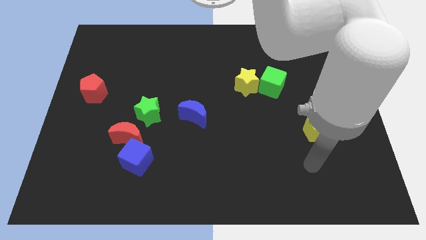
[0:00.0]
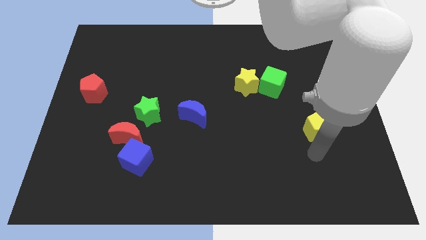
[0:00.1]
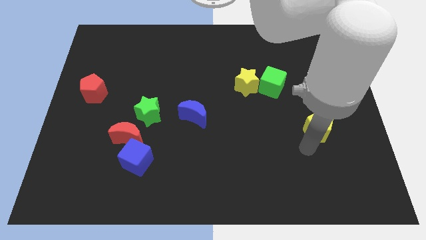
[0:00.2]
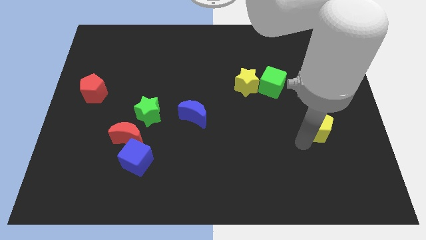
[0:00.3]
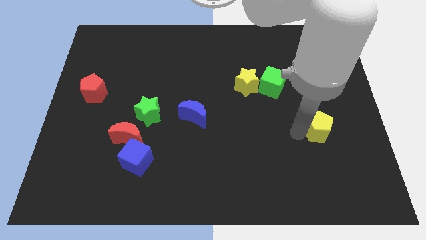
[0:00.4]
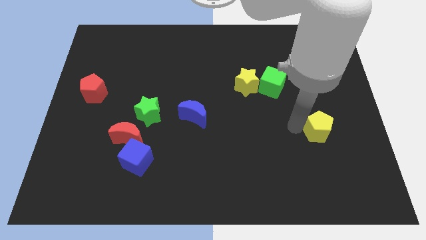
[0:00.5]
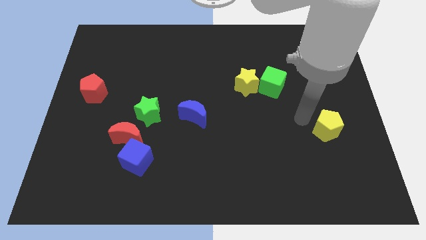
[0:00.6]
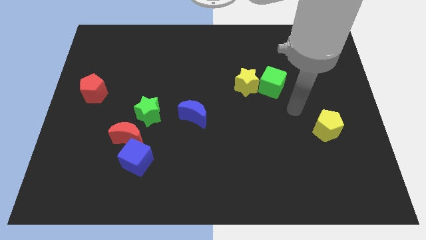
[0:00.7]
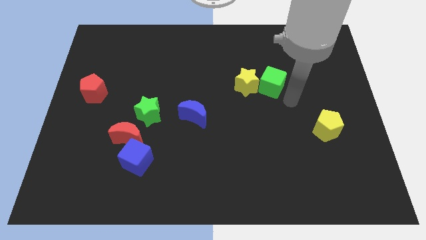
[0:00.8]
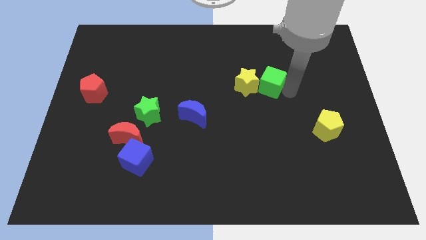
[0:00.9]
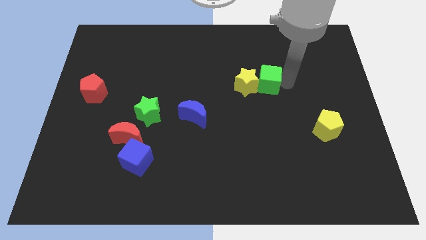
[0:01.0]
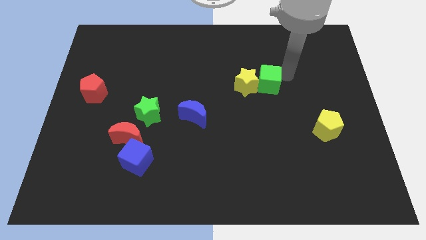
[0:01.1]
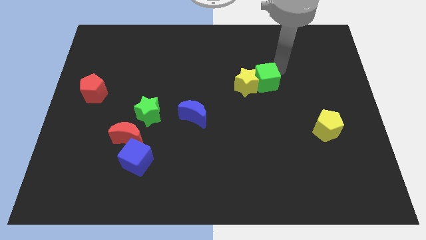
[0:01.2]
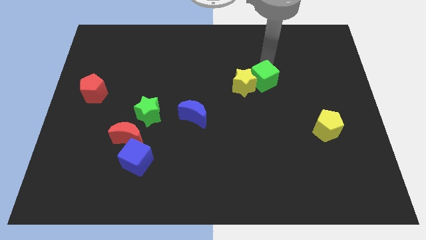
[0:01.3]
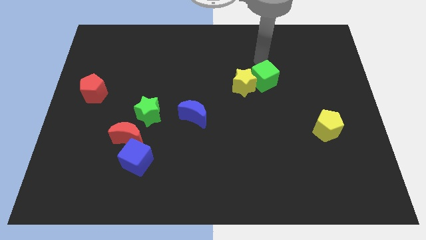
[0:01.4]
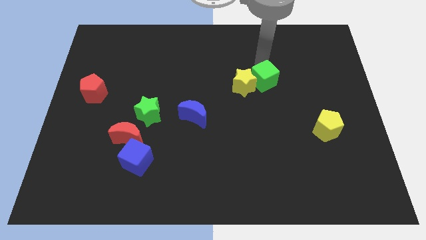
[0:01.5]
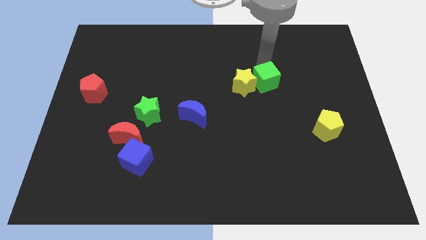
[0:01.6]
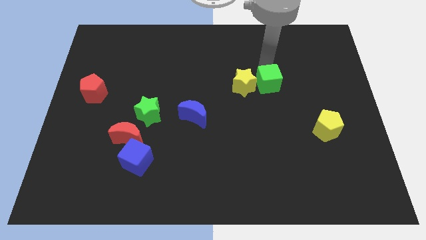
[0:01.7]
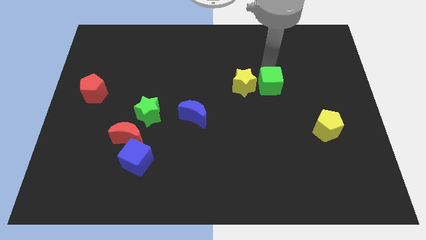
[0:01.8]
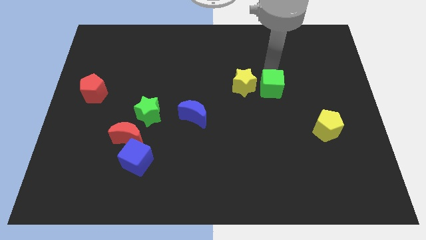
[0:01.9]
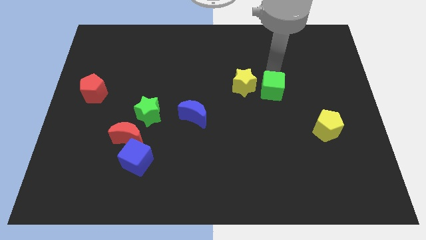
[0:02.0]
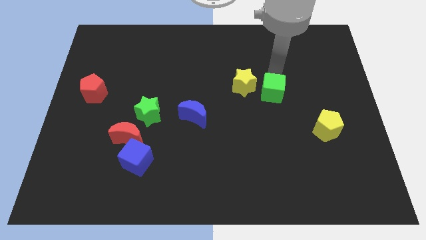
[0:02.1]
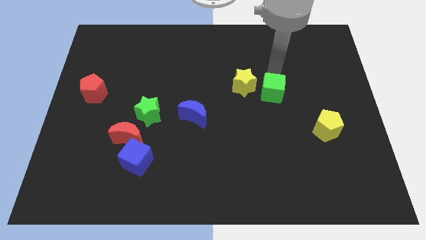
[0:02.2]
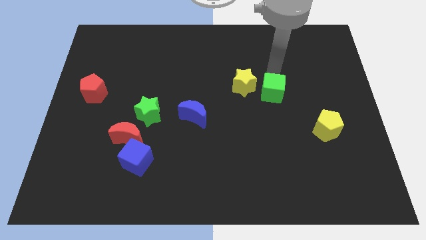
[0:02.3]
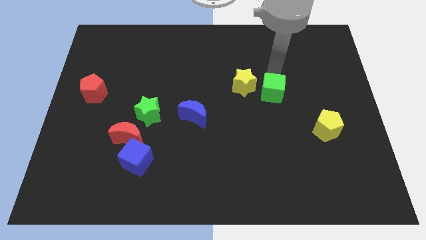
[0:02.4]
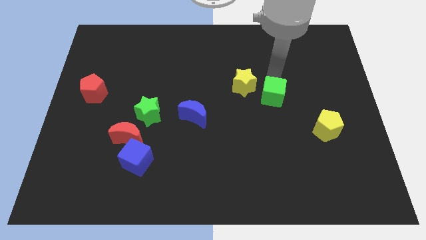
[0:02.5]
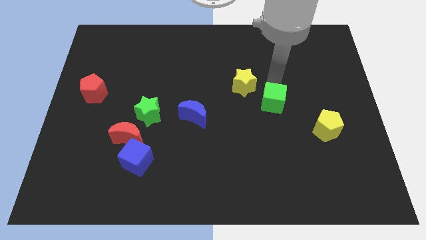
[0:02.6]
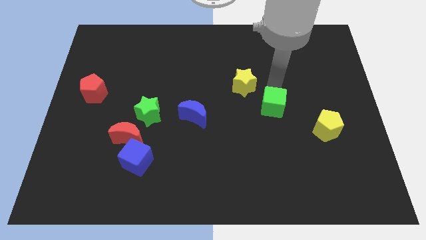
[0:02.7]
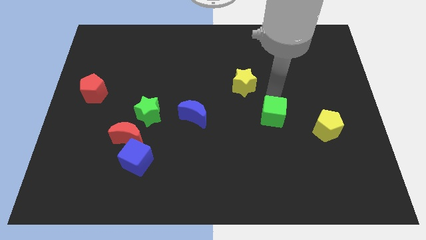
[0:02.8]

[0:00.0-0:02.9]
slide the green cube slightly downwards

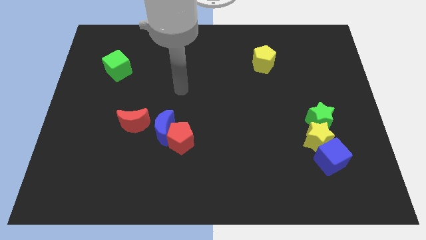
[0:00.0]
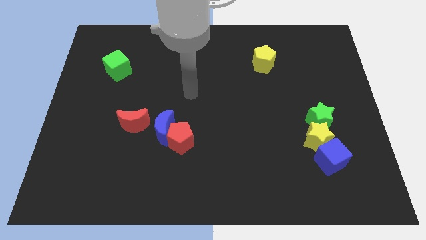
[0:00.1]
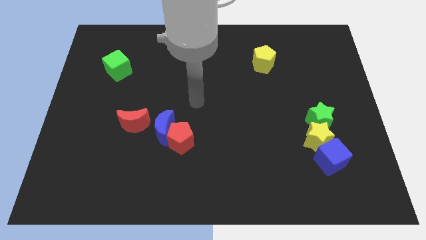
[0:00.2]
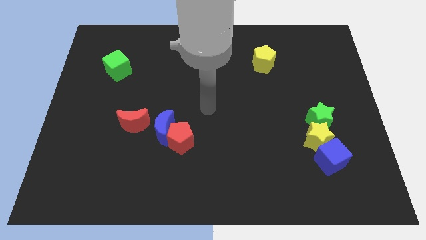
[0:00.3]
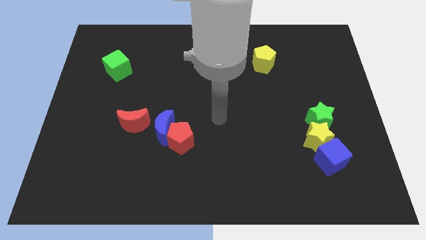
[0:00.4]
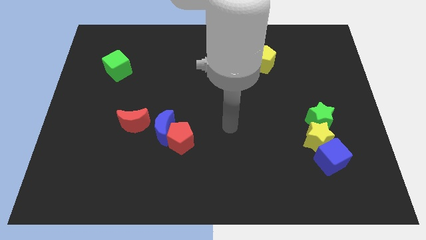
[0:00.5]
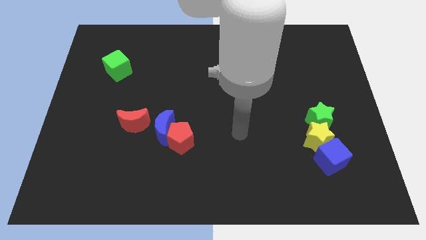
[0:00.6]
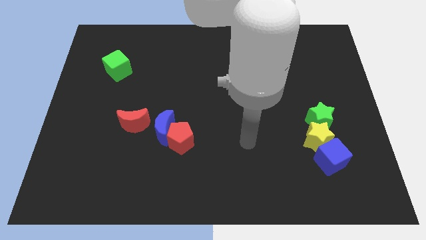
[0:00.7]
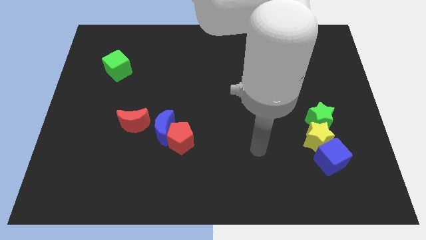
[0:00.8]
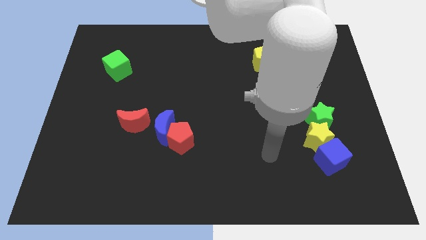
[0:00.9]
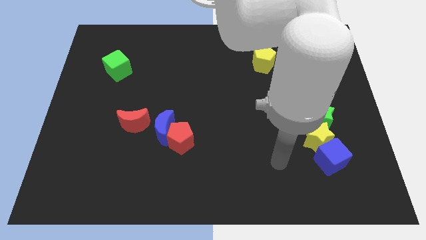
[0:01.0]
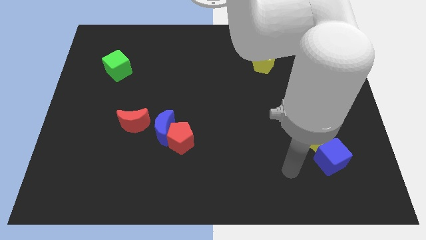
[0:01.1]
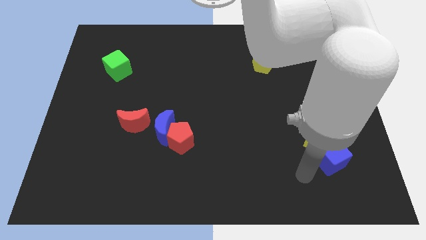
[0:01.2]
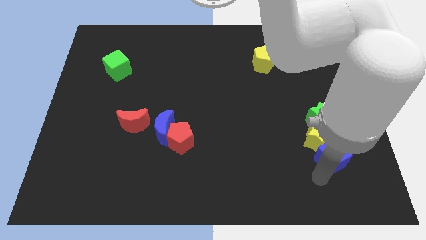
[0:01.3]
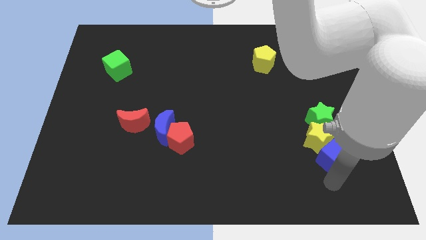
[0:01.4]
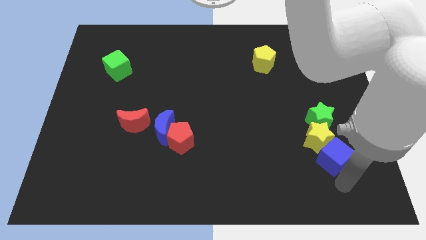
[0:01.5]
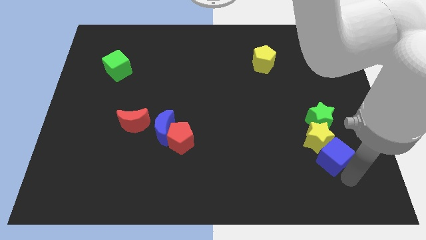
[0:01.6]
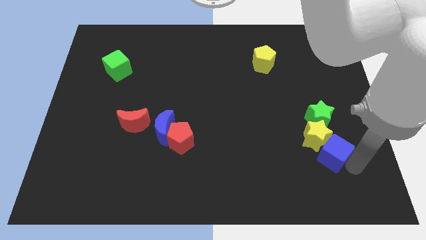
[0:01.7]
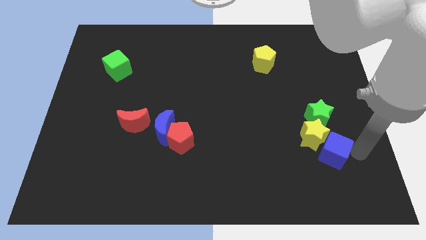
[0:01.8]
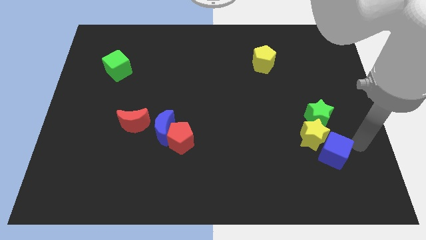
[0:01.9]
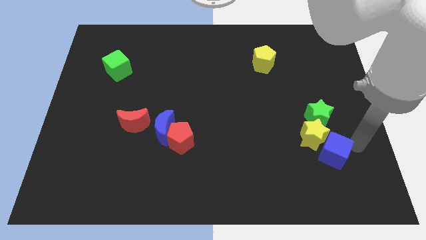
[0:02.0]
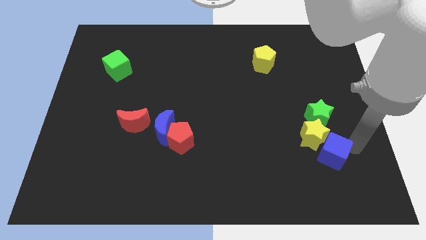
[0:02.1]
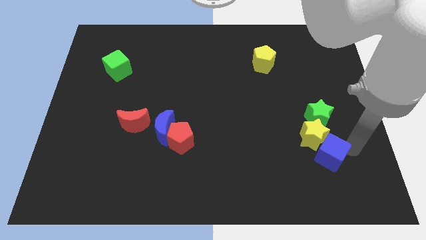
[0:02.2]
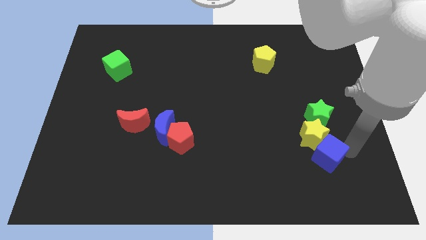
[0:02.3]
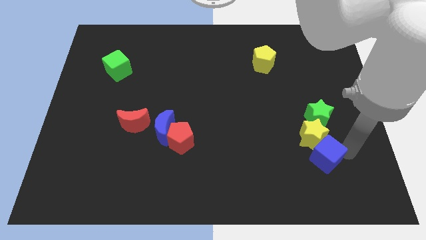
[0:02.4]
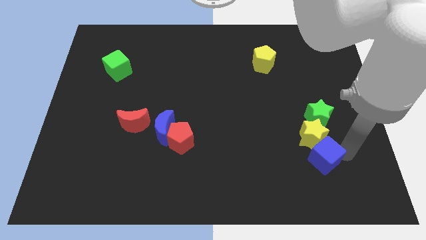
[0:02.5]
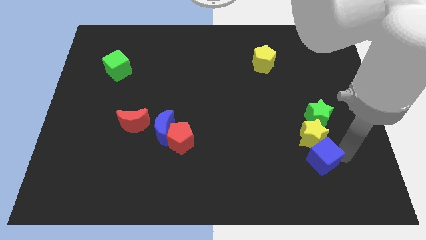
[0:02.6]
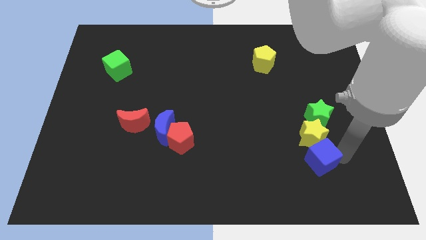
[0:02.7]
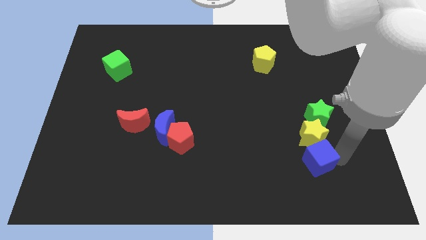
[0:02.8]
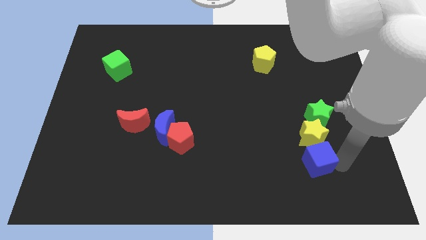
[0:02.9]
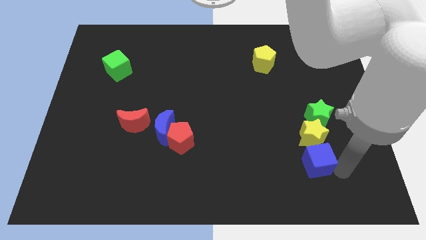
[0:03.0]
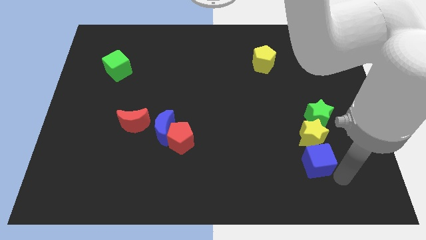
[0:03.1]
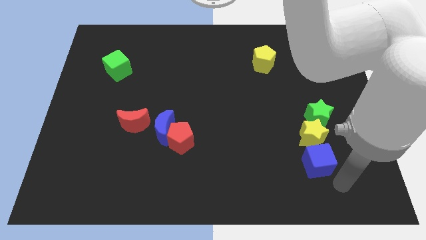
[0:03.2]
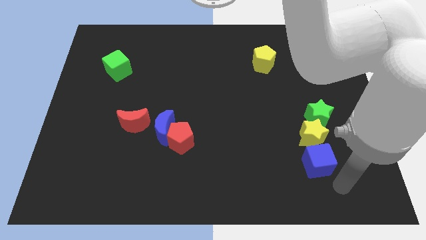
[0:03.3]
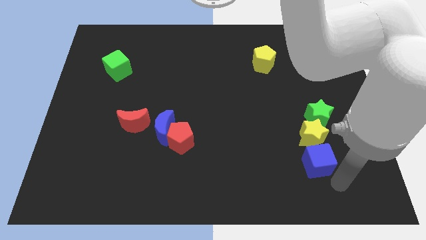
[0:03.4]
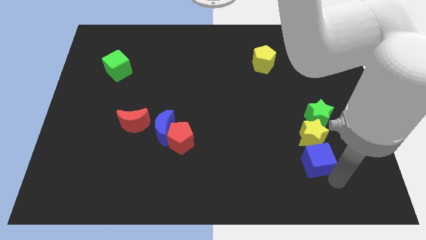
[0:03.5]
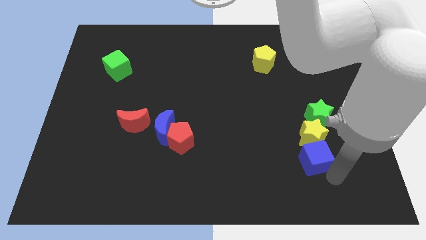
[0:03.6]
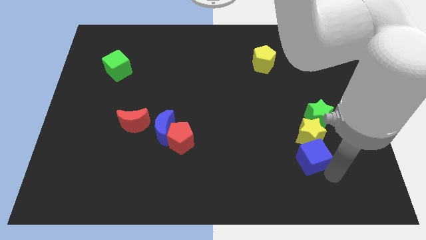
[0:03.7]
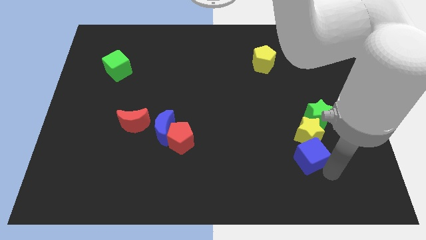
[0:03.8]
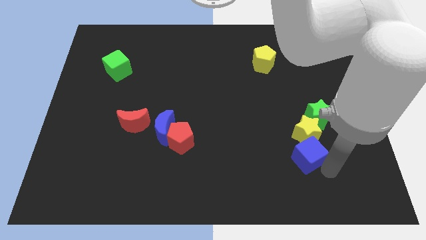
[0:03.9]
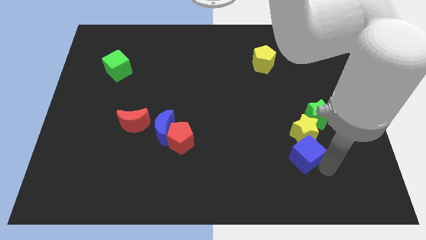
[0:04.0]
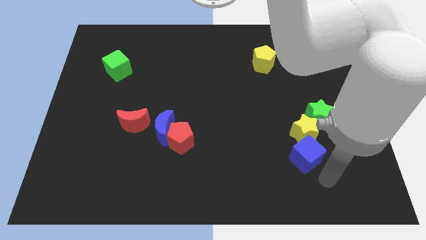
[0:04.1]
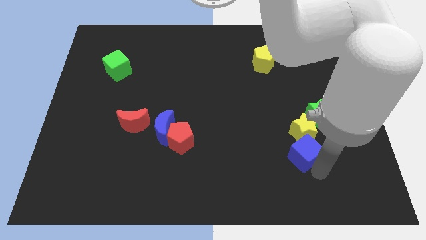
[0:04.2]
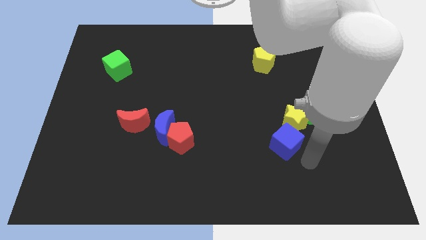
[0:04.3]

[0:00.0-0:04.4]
push the blue cube up and then left slightly

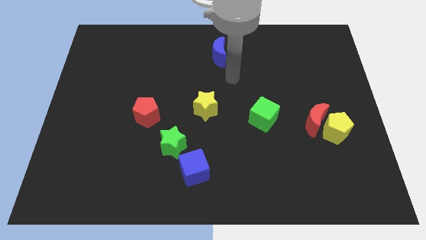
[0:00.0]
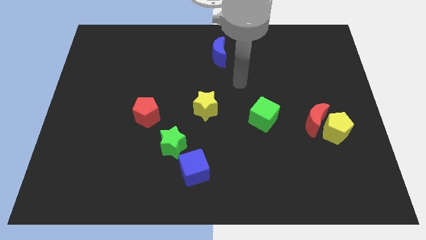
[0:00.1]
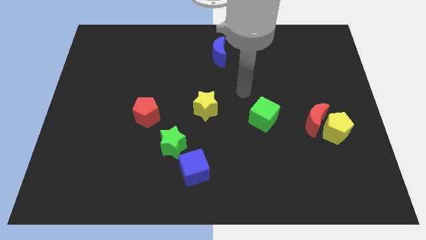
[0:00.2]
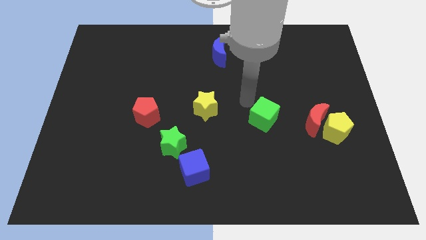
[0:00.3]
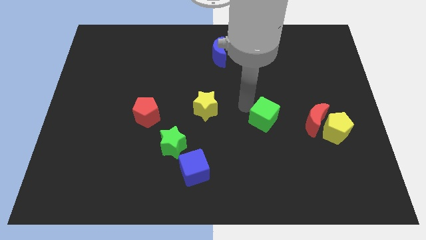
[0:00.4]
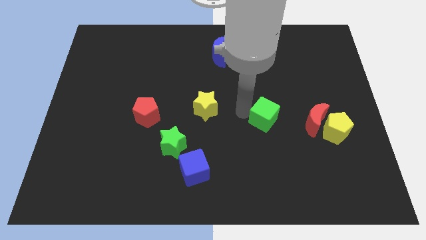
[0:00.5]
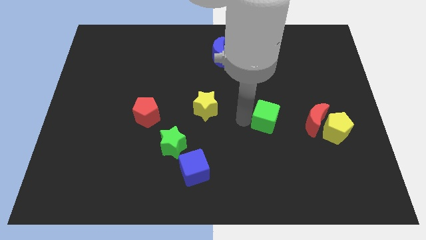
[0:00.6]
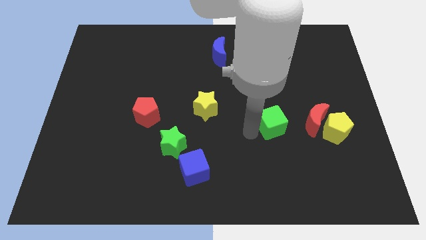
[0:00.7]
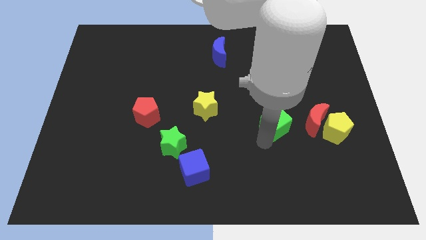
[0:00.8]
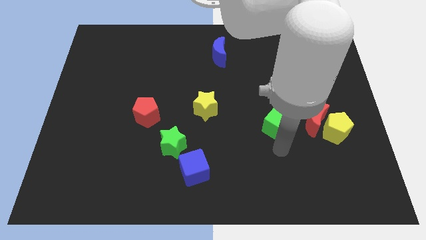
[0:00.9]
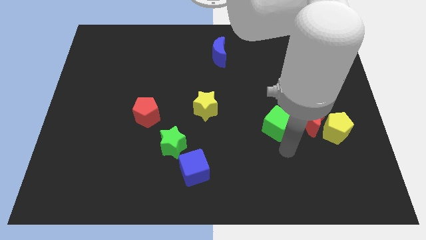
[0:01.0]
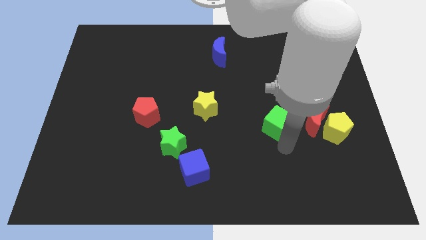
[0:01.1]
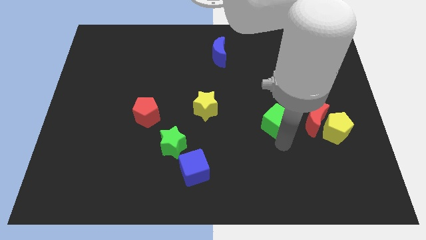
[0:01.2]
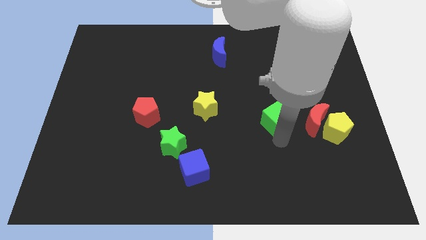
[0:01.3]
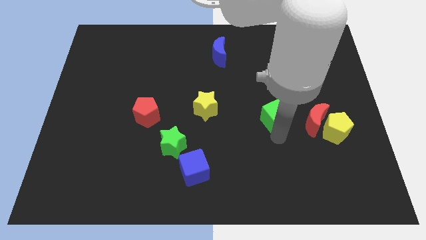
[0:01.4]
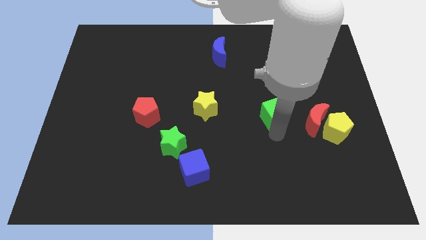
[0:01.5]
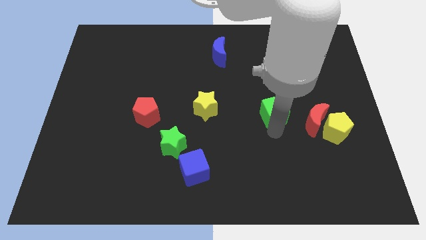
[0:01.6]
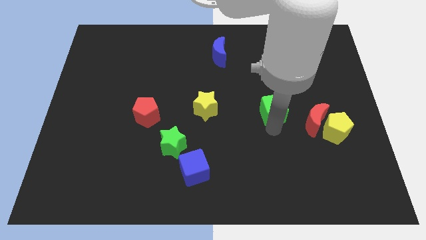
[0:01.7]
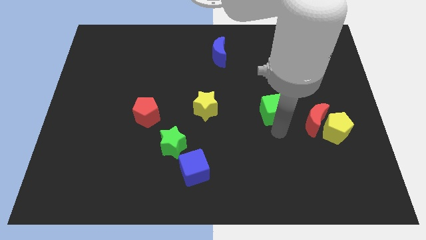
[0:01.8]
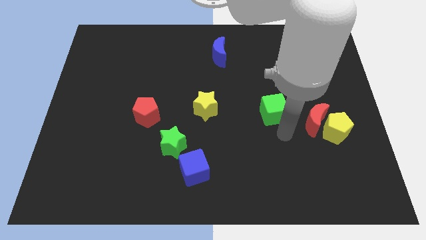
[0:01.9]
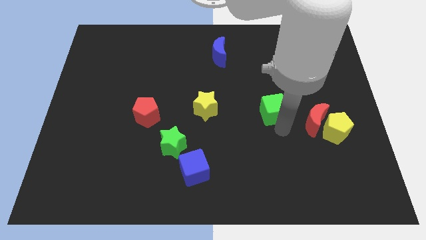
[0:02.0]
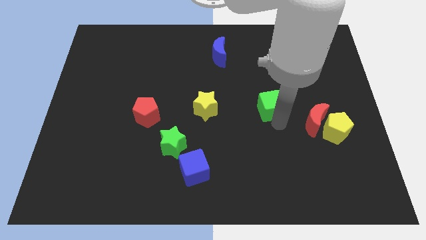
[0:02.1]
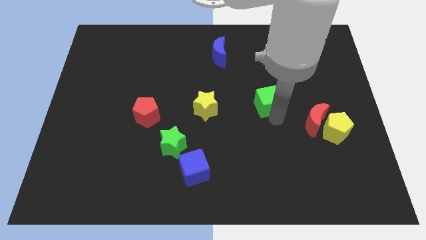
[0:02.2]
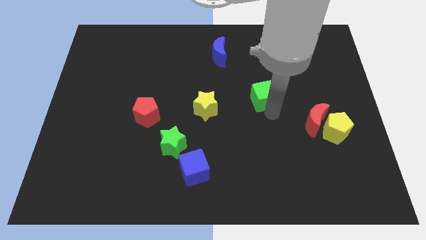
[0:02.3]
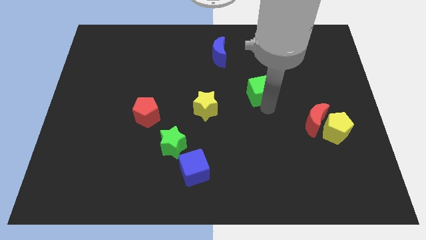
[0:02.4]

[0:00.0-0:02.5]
slightly slide the green cube upwards
